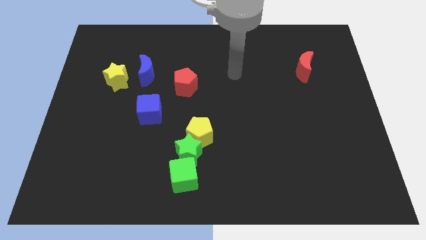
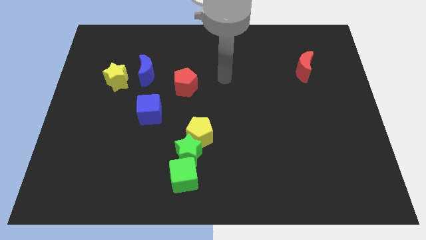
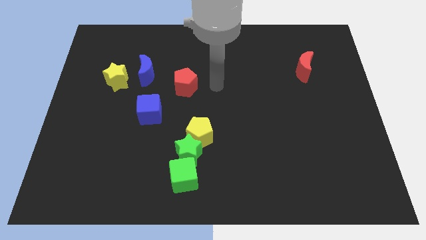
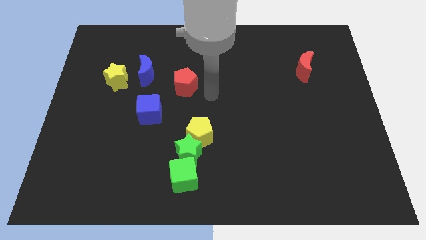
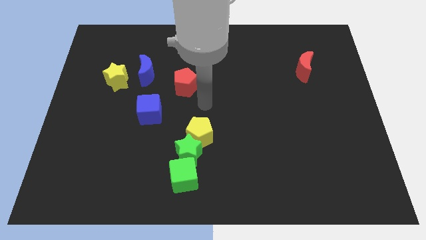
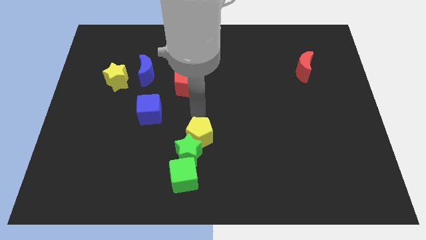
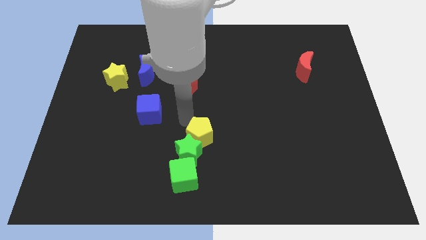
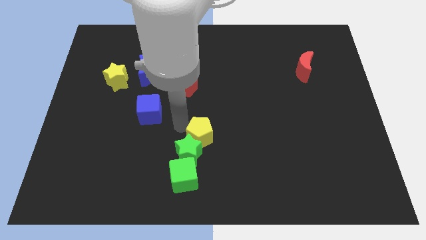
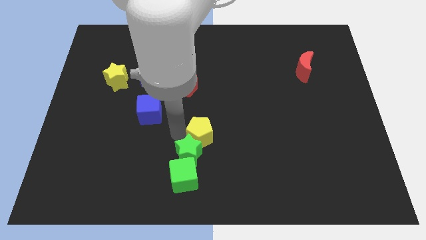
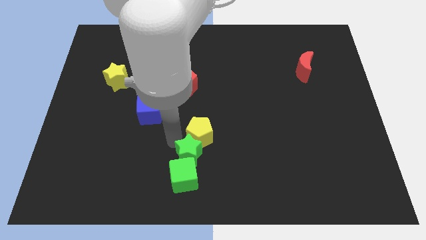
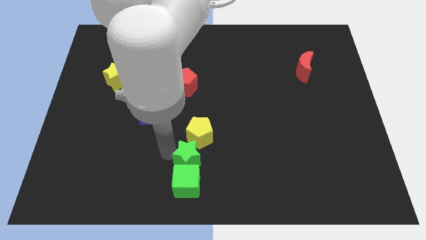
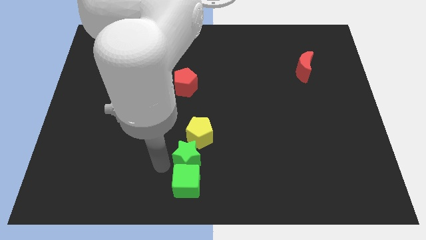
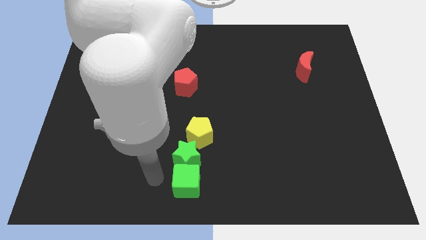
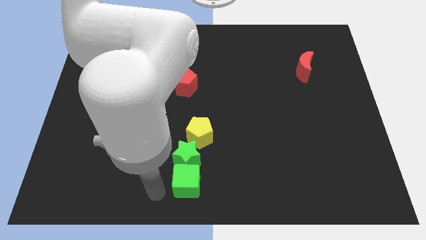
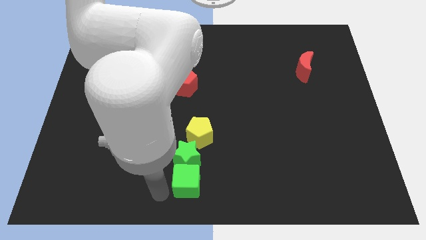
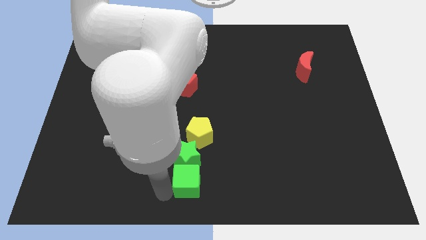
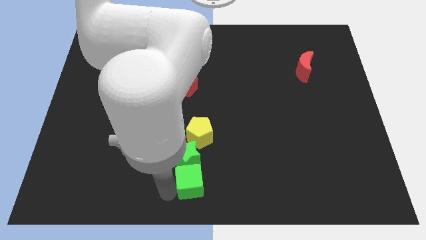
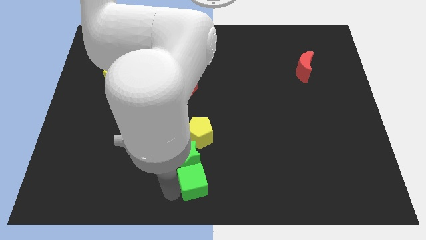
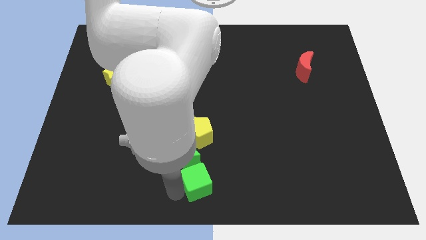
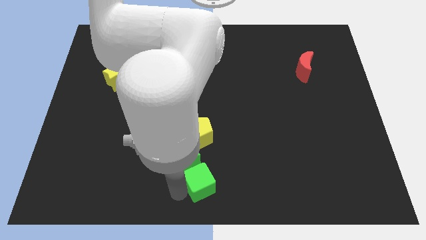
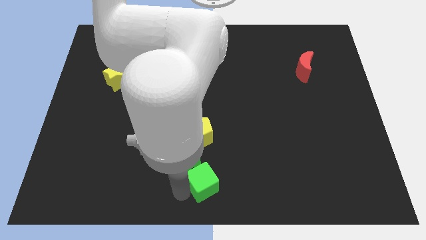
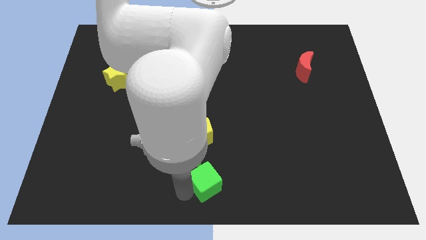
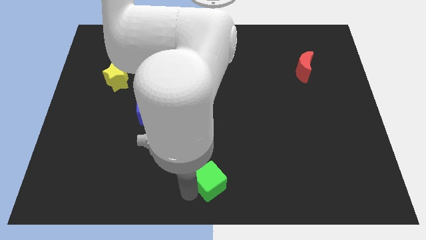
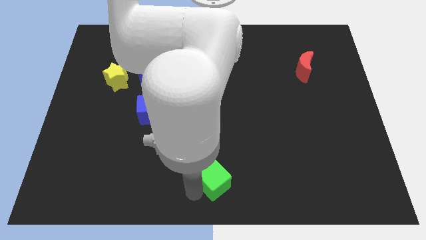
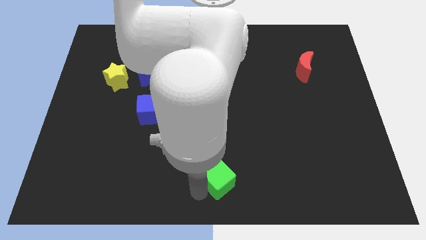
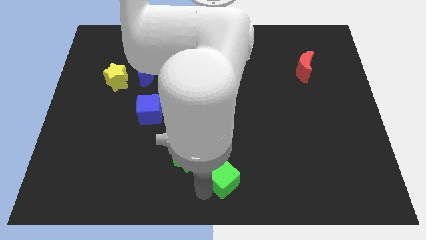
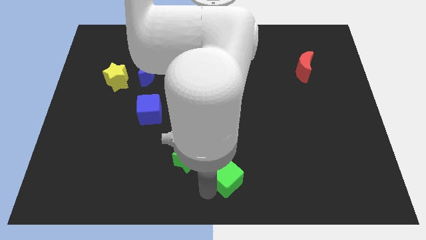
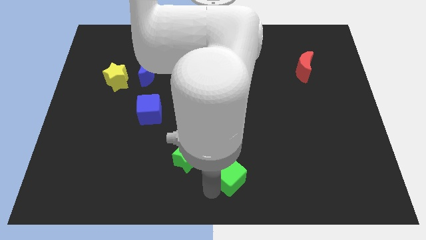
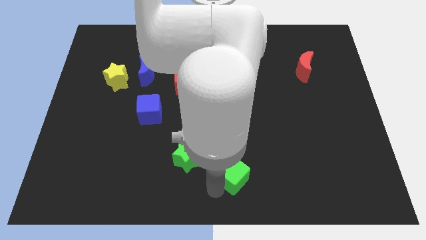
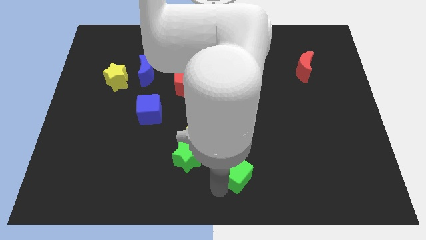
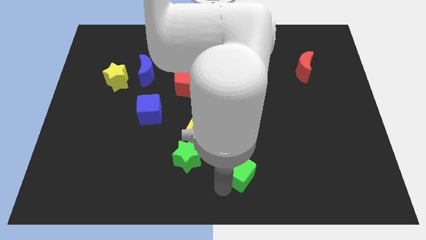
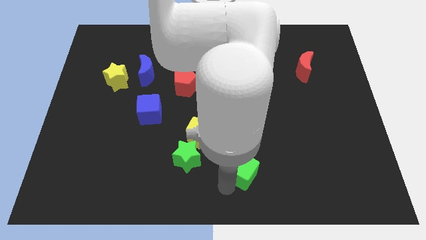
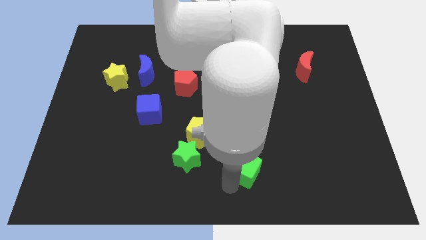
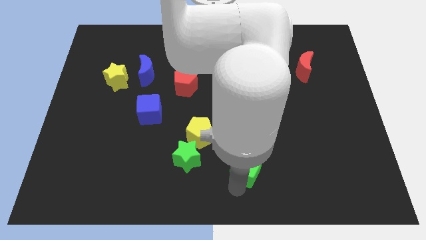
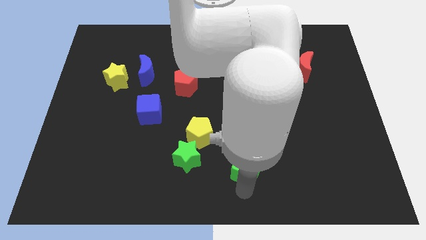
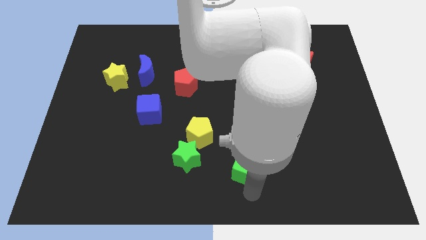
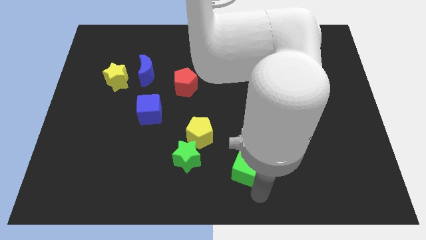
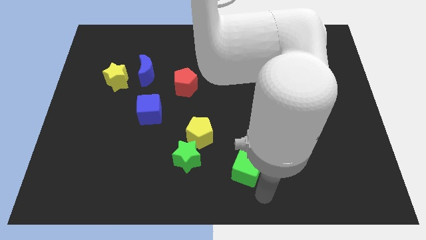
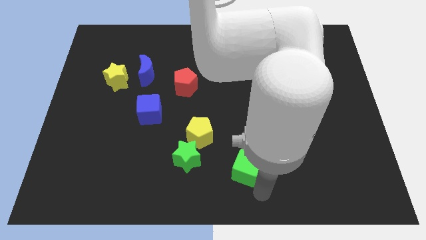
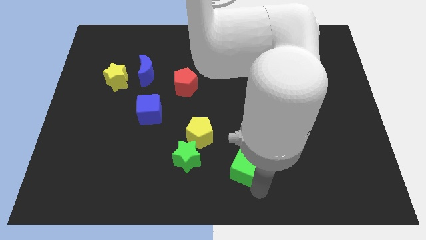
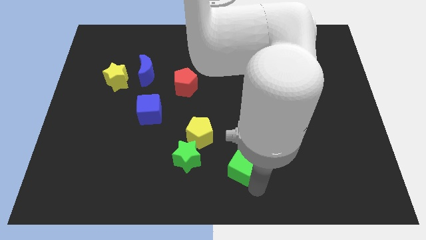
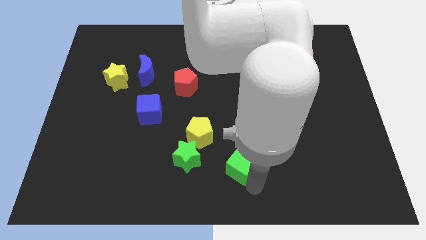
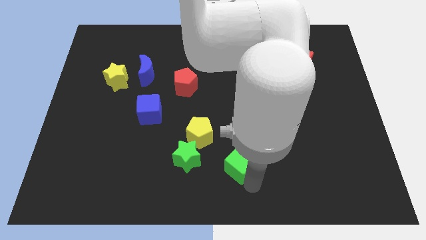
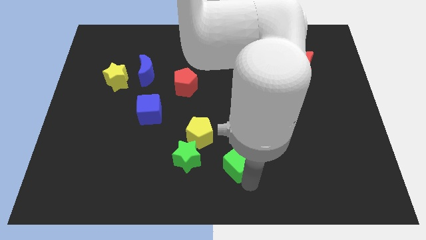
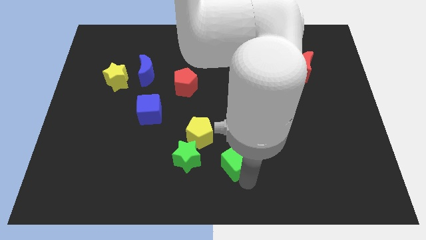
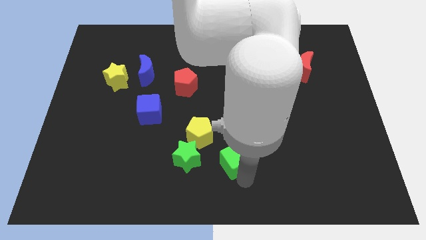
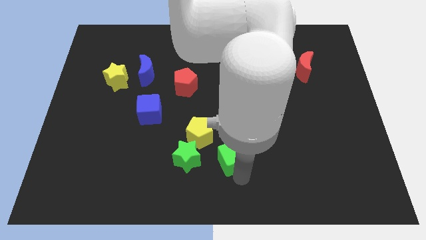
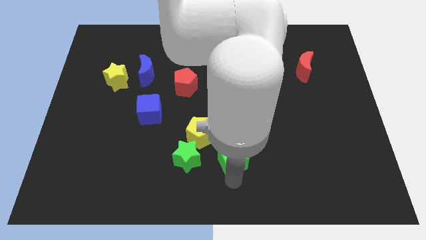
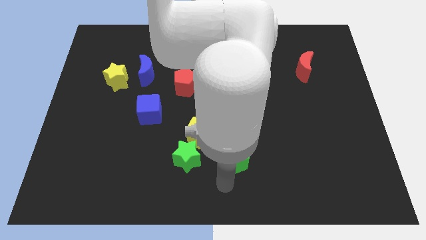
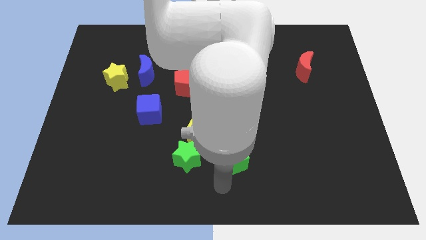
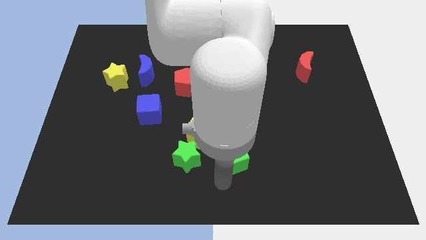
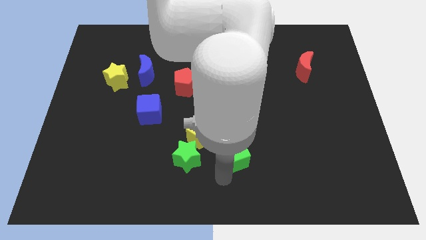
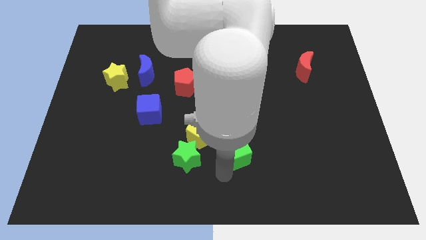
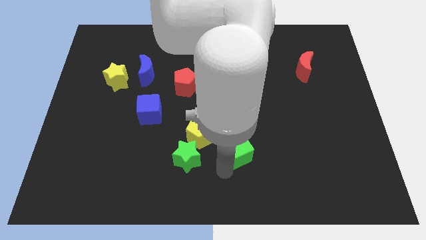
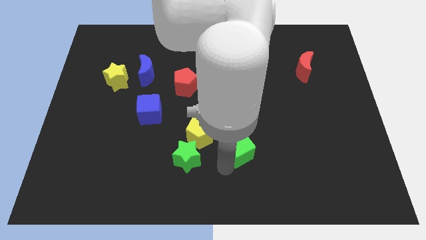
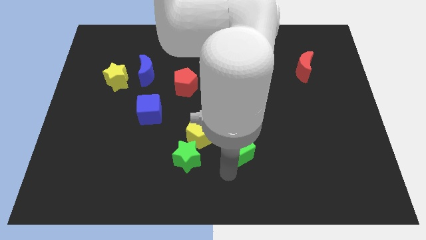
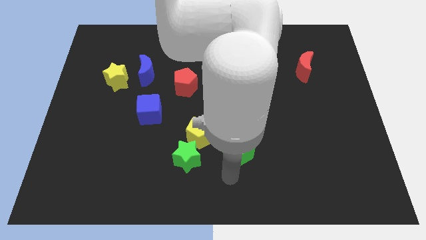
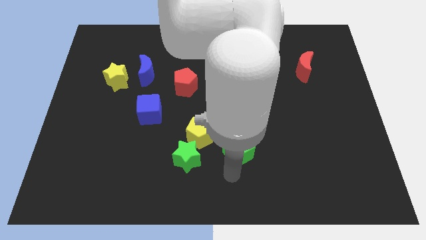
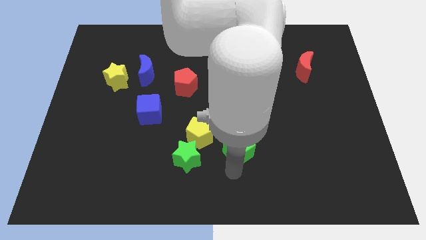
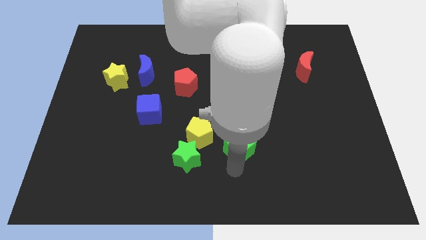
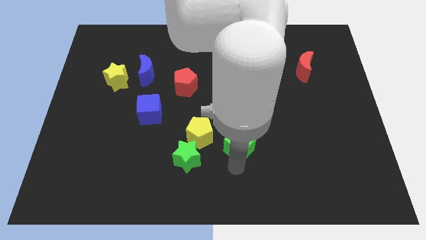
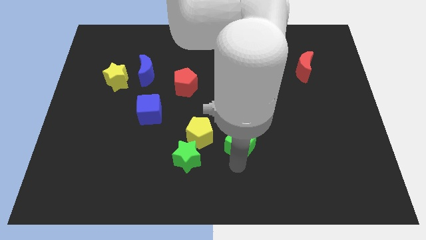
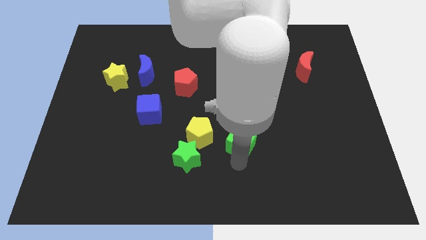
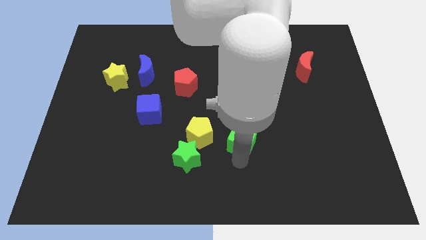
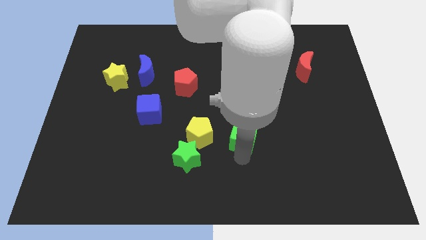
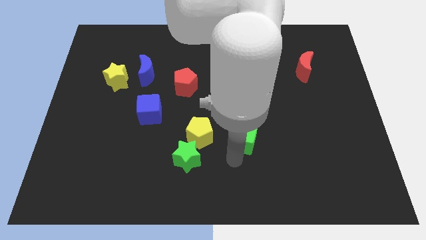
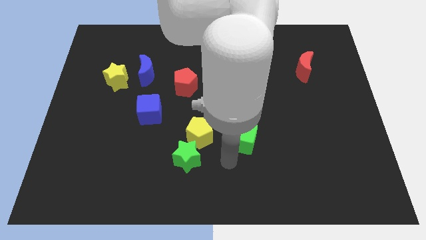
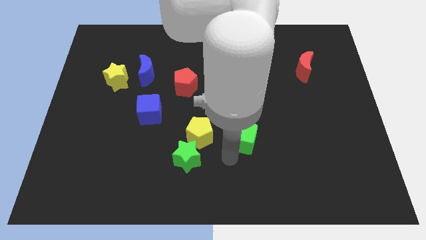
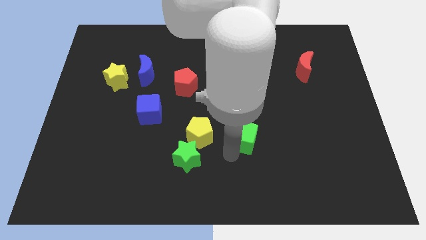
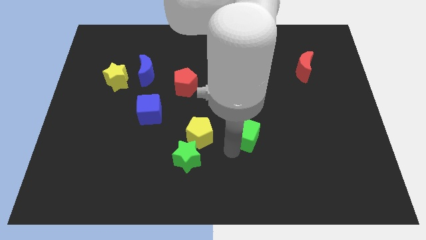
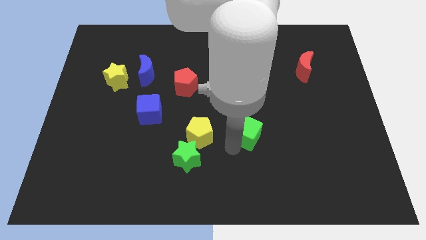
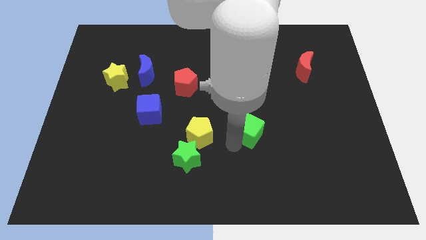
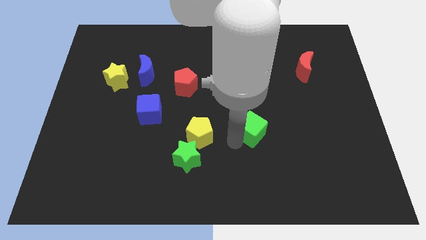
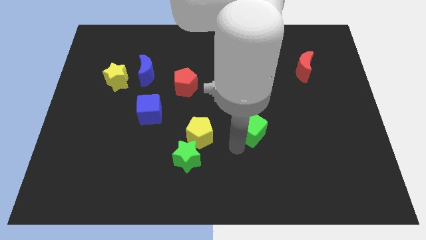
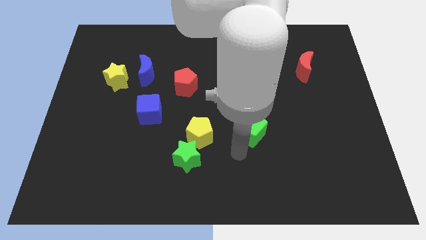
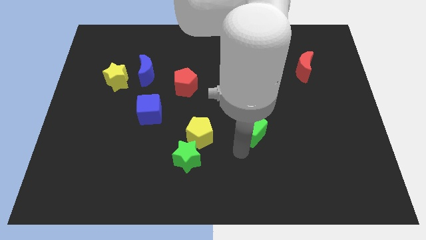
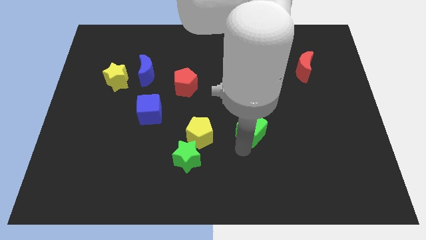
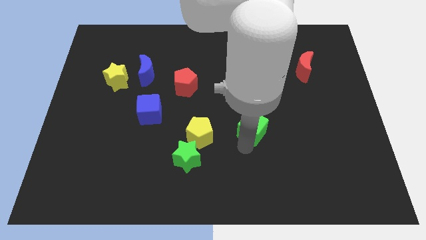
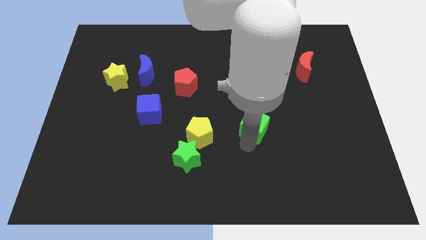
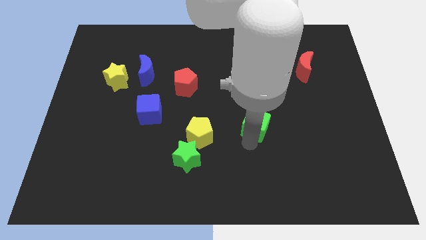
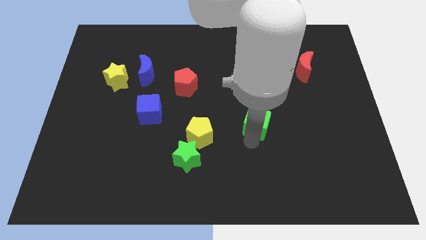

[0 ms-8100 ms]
slide the green cube diagonally upwards and right
